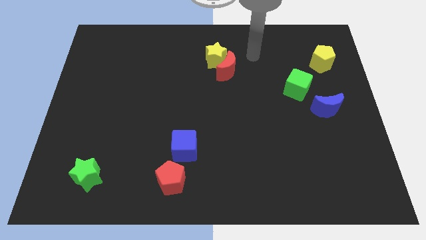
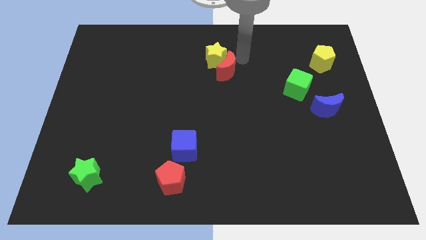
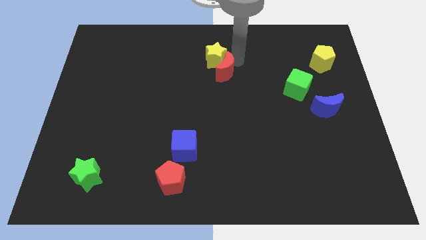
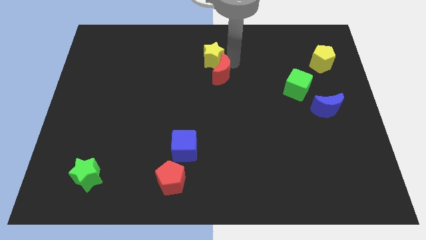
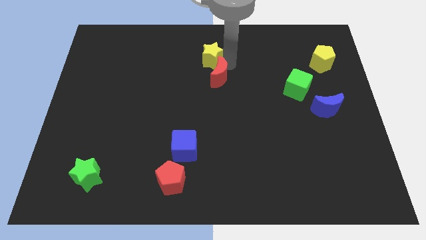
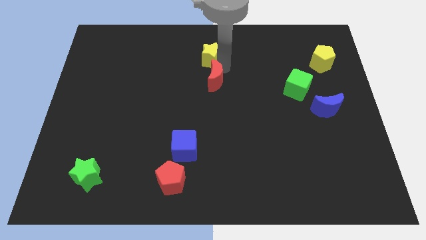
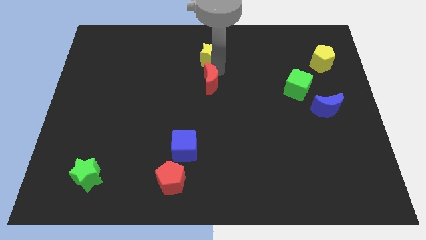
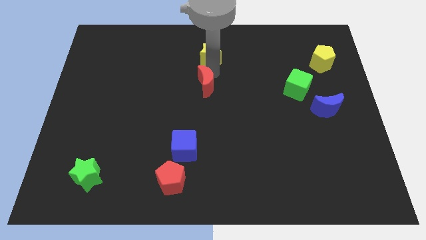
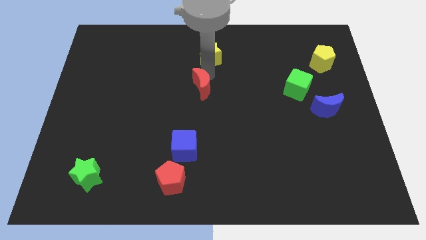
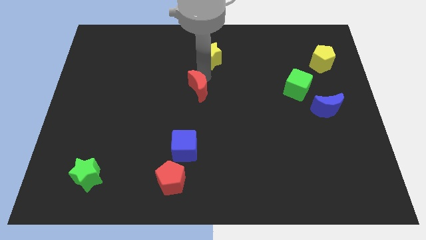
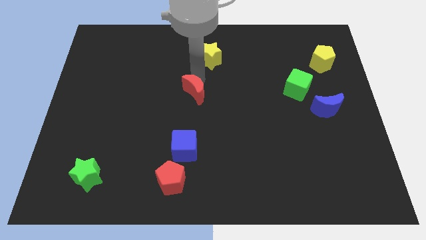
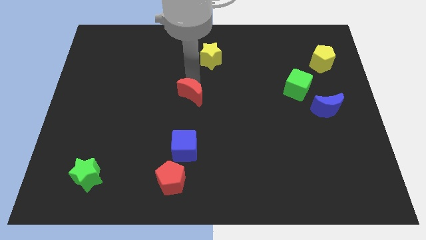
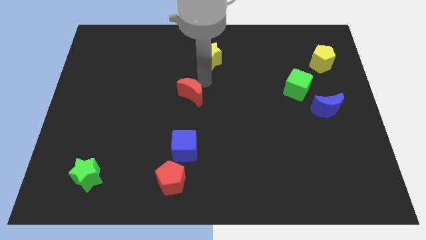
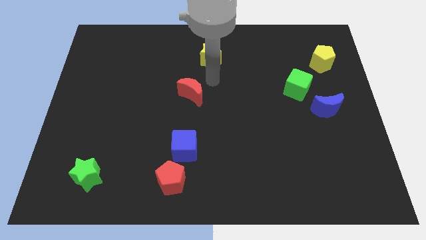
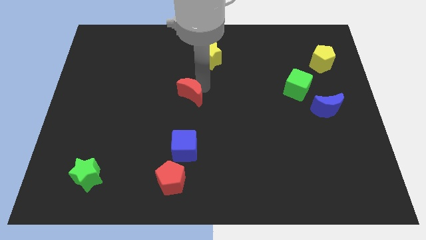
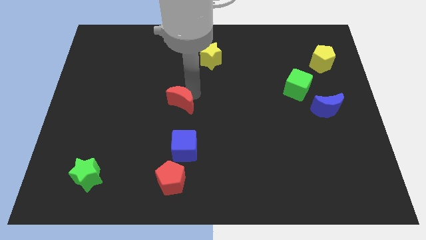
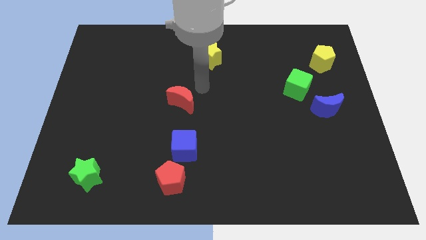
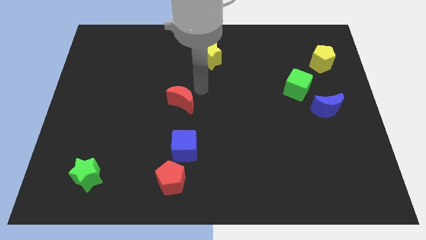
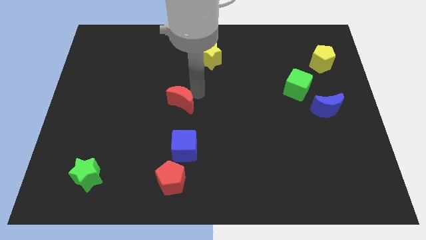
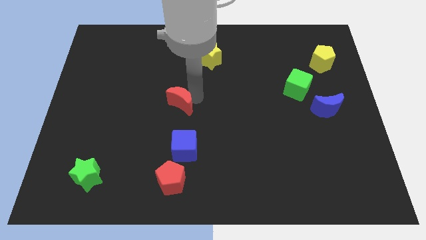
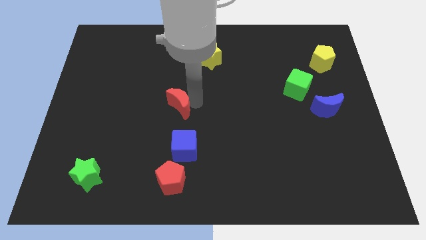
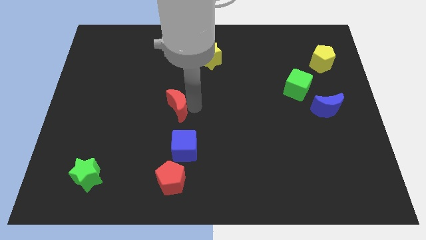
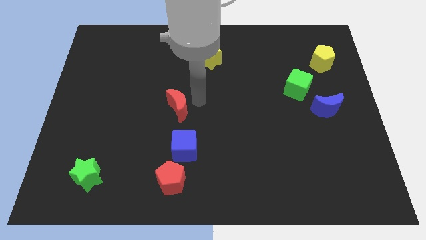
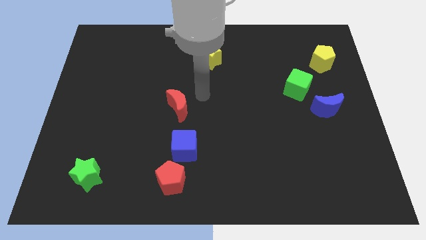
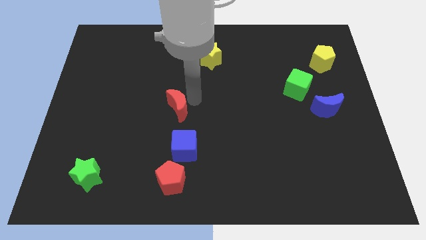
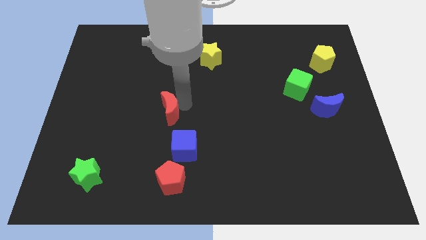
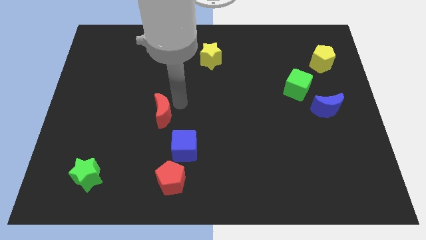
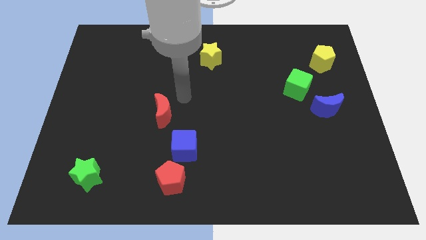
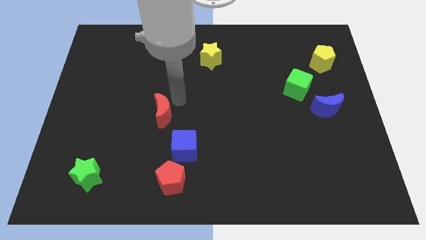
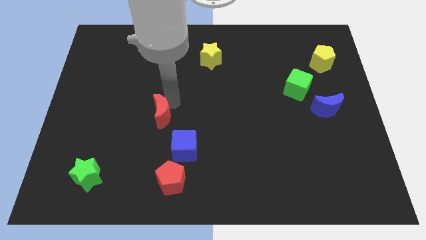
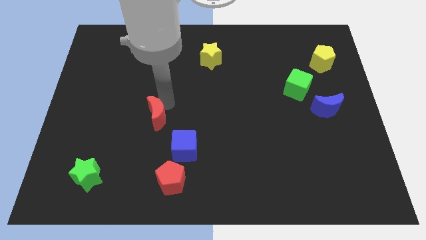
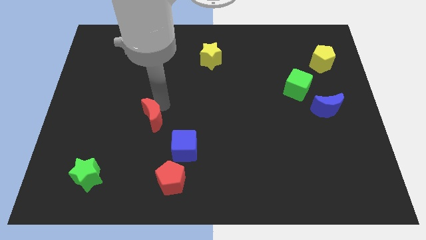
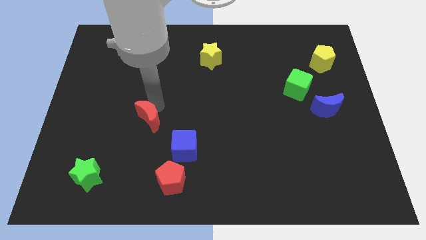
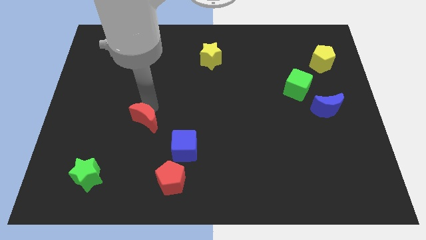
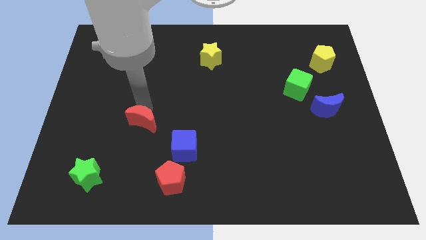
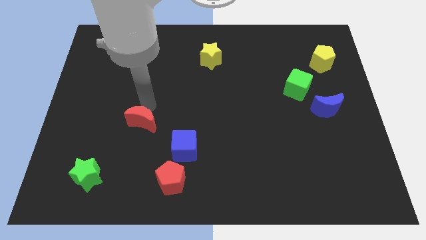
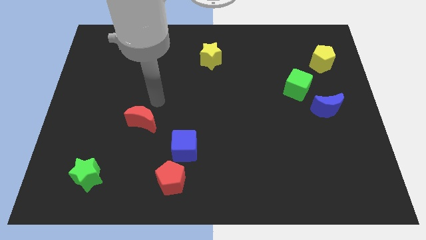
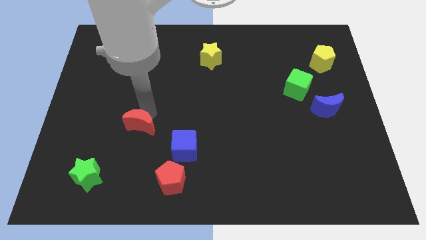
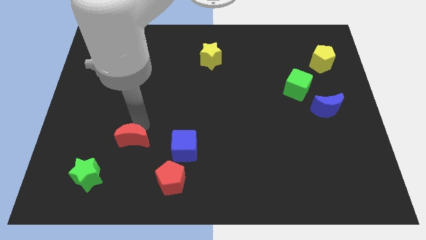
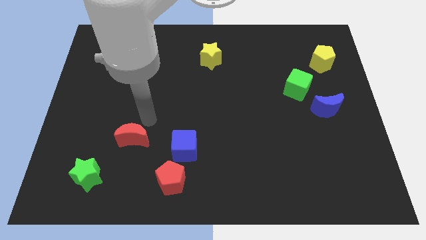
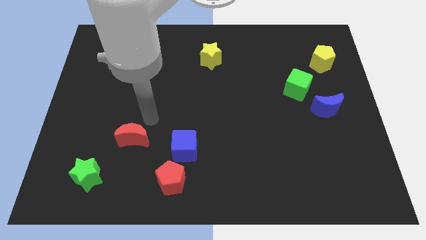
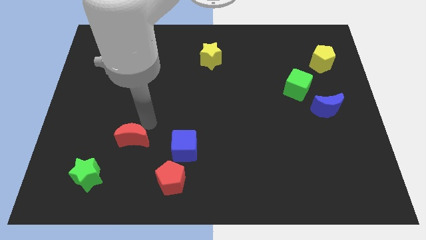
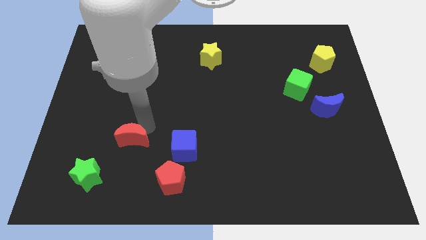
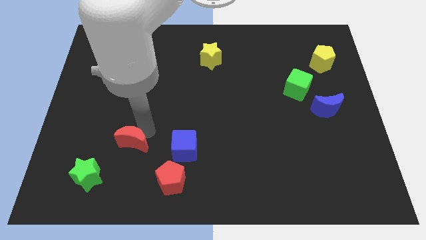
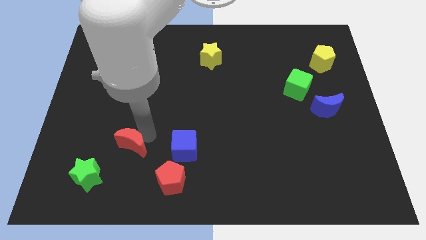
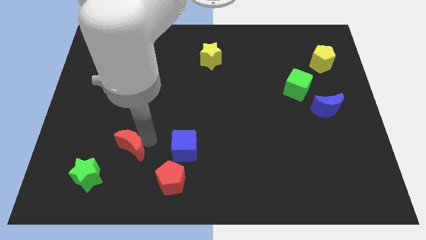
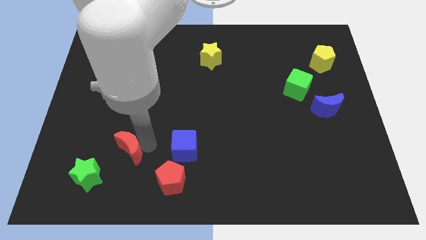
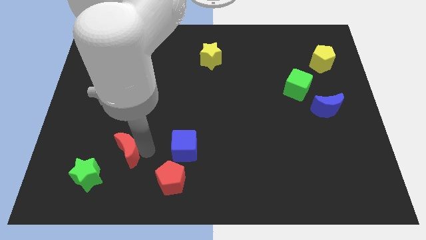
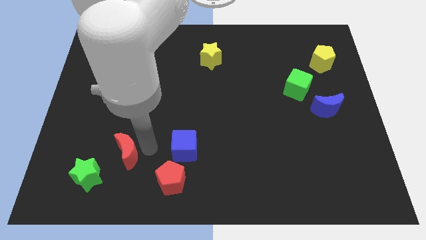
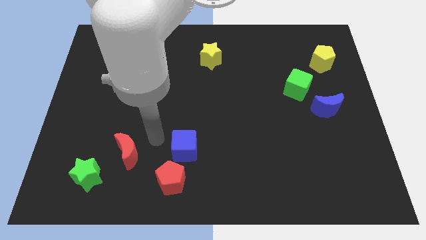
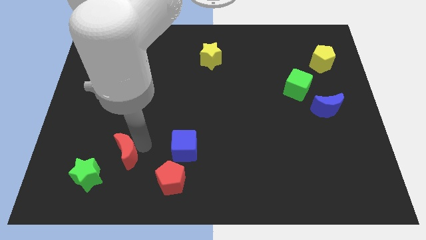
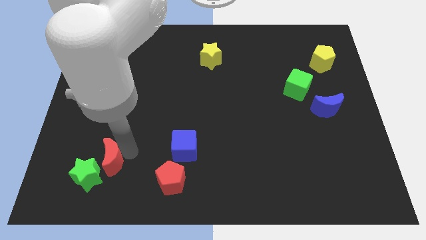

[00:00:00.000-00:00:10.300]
put the red moon towards the green star

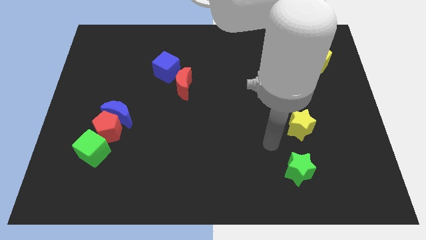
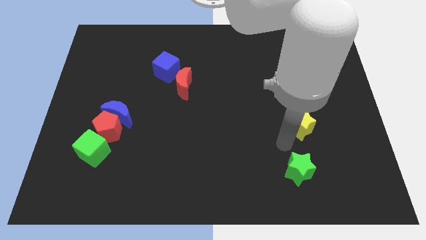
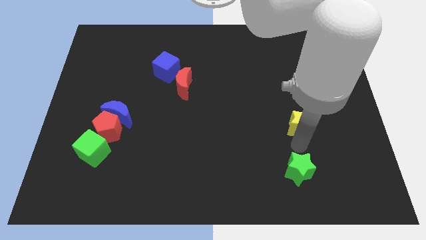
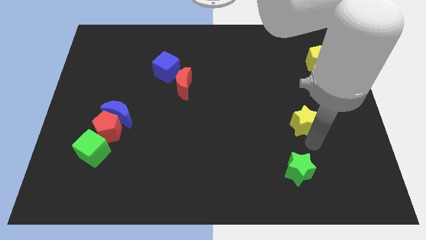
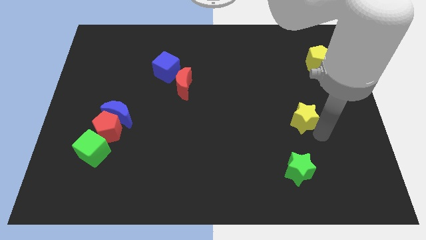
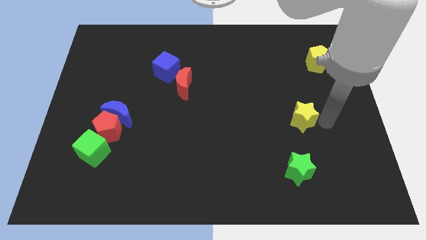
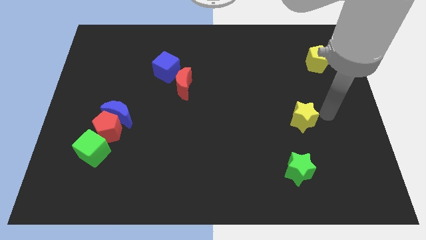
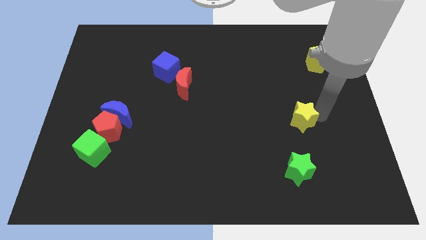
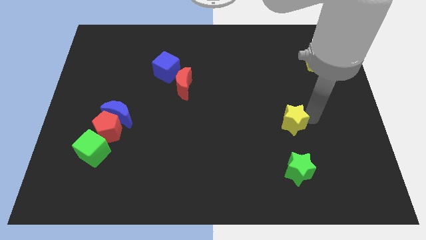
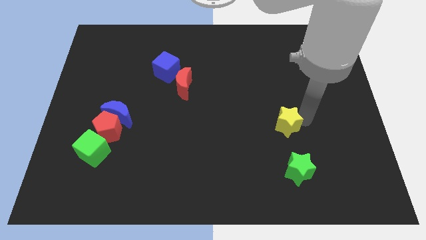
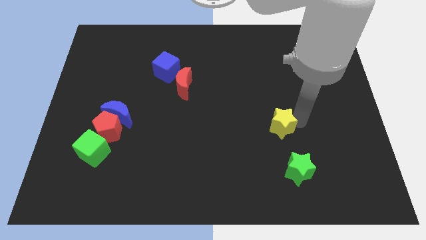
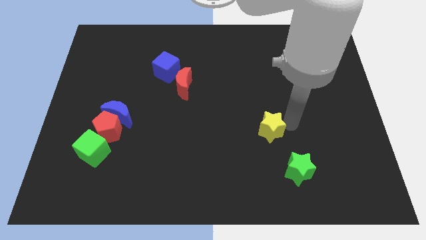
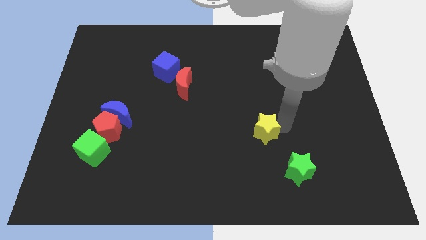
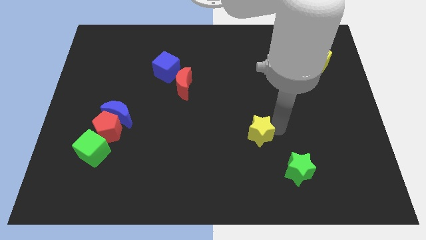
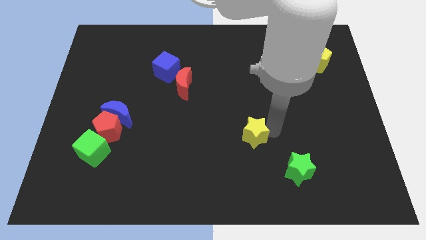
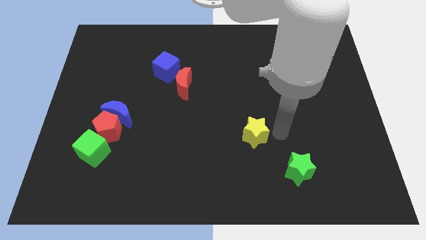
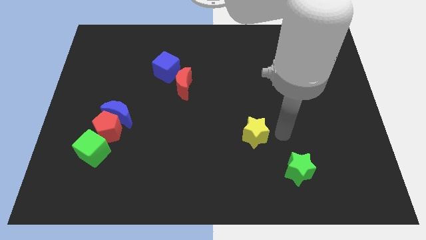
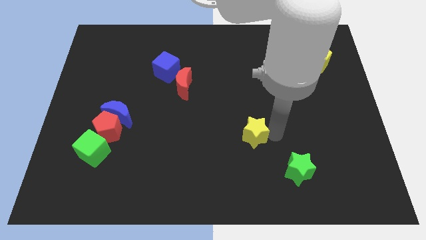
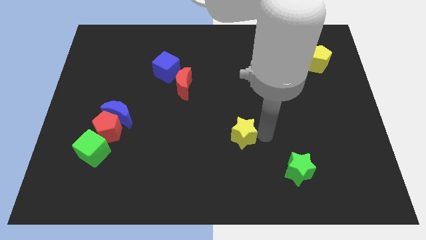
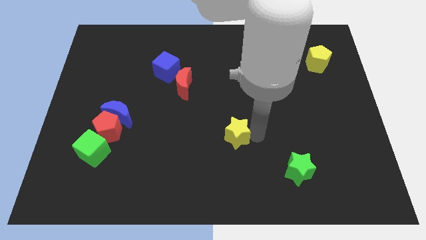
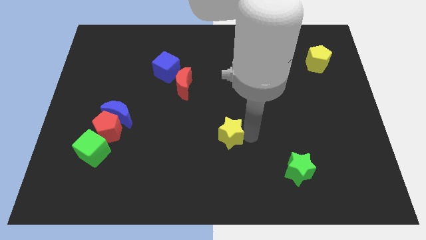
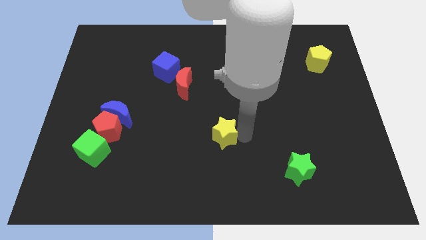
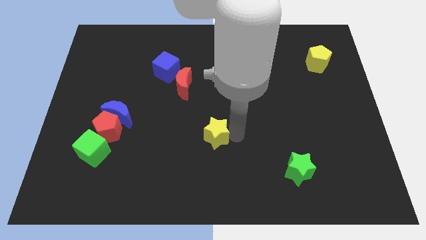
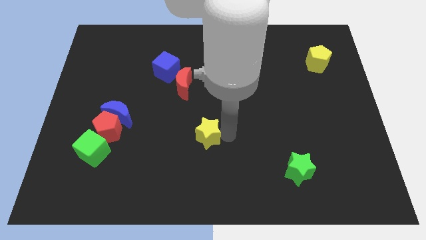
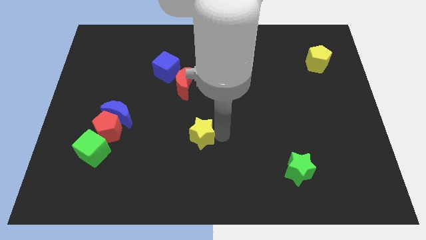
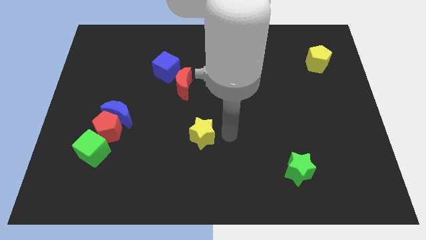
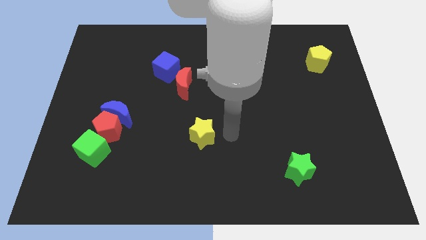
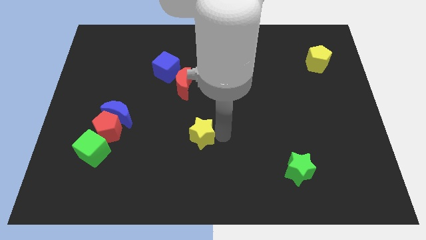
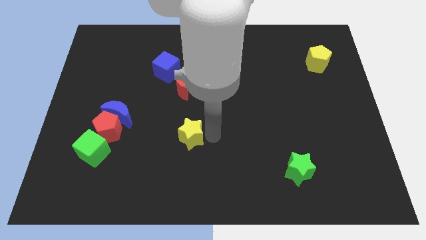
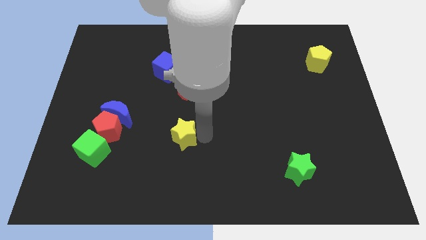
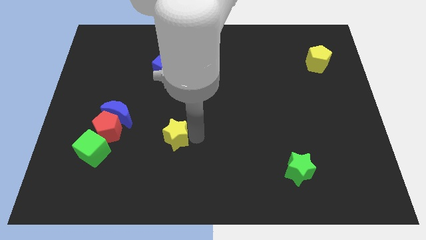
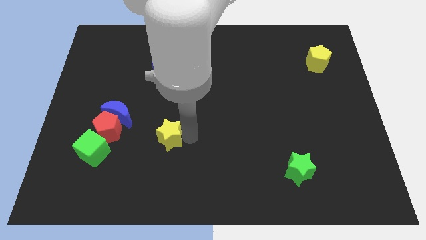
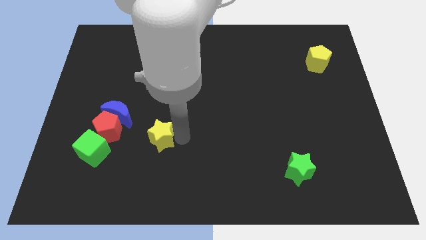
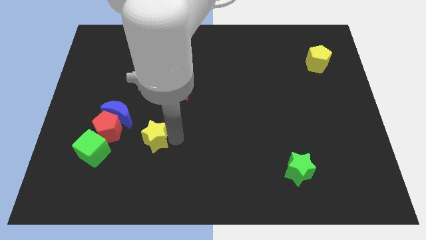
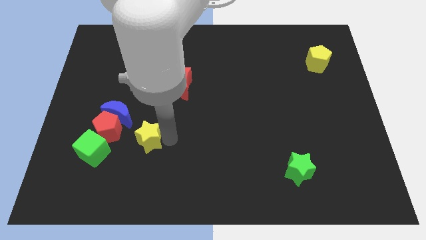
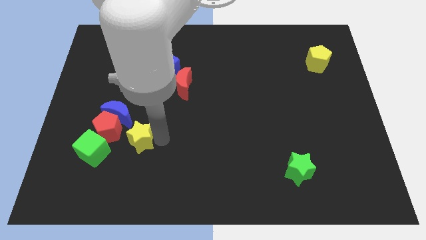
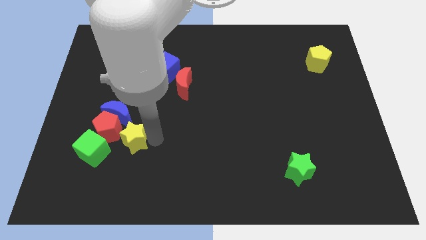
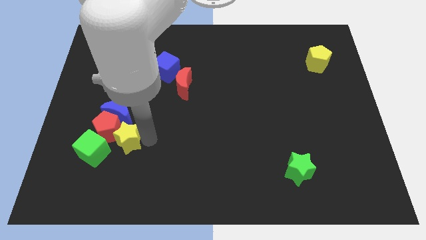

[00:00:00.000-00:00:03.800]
move the yellow star close to the red pentagon
